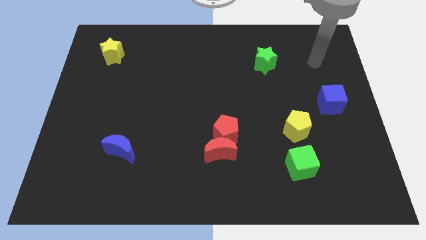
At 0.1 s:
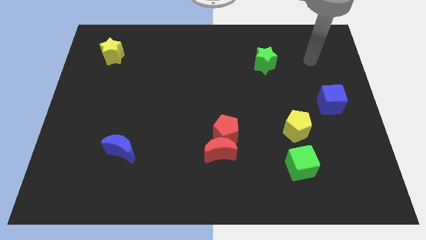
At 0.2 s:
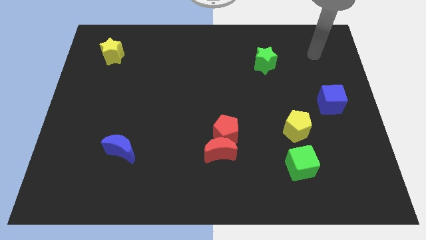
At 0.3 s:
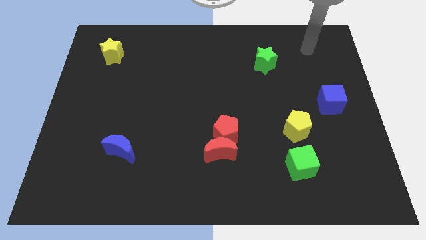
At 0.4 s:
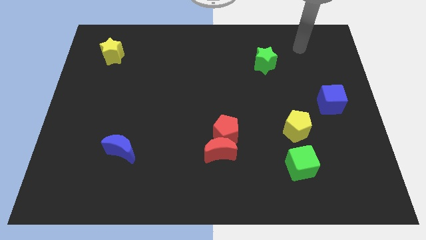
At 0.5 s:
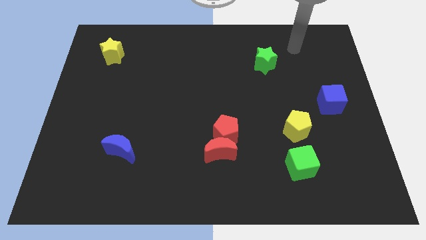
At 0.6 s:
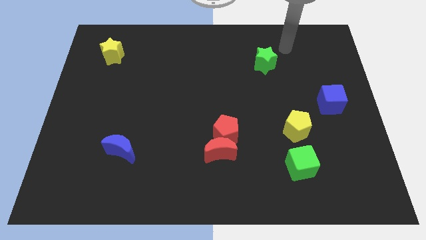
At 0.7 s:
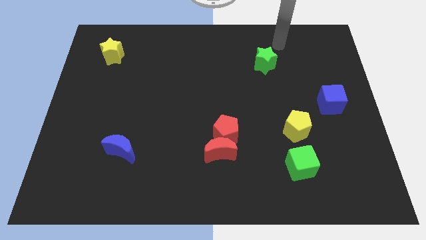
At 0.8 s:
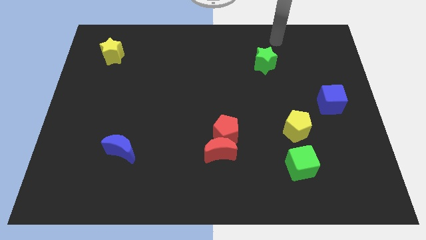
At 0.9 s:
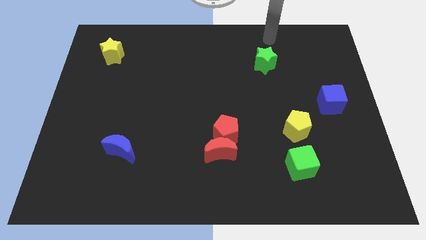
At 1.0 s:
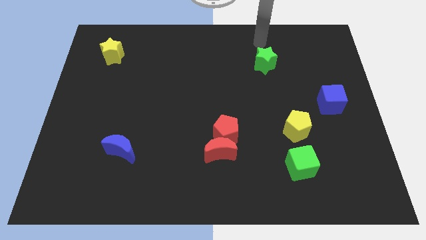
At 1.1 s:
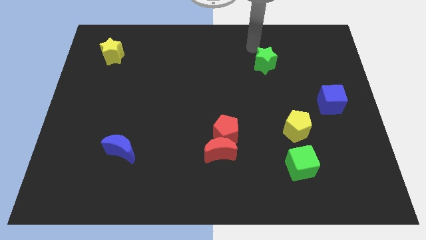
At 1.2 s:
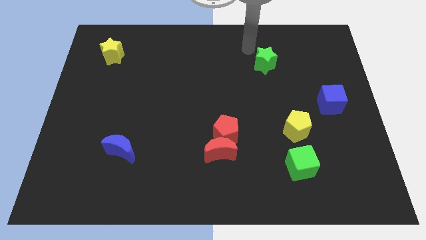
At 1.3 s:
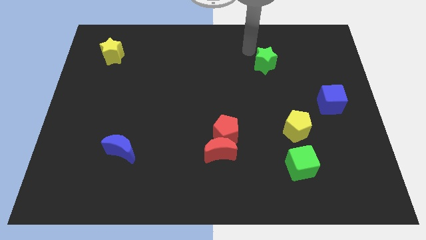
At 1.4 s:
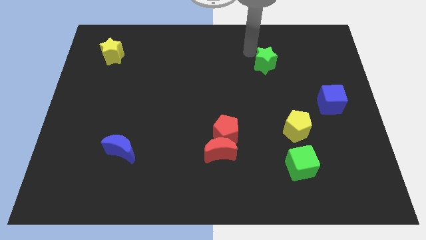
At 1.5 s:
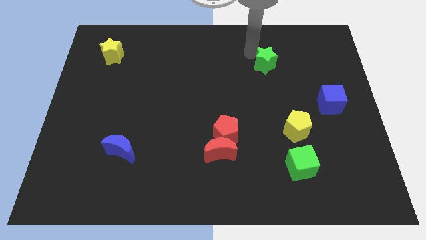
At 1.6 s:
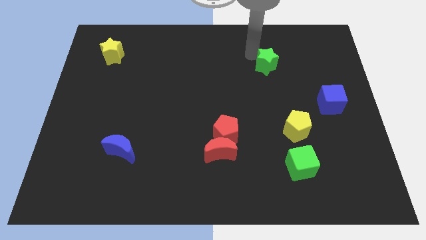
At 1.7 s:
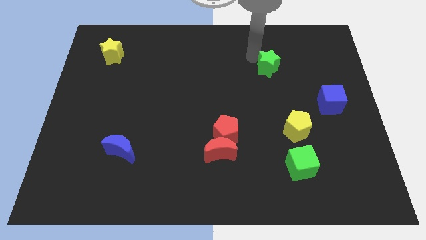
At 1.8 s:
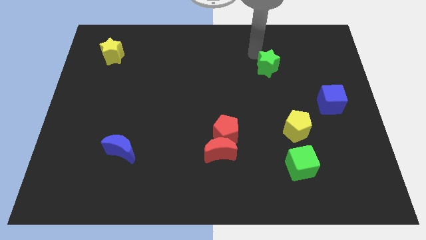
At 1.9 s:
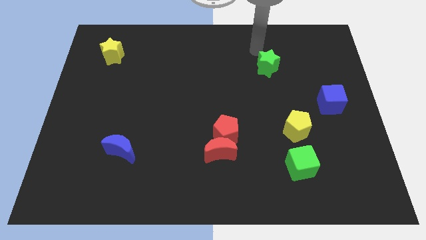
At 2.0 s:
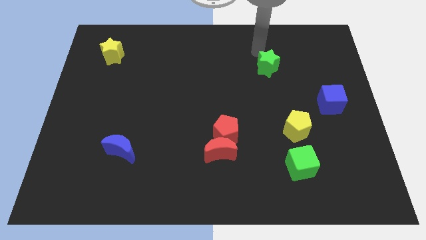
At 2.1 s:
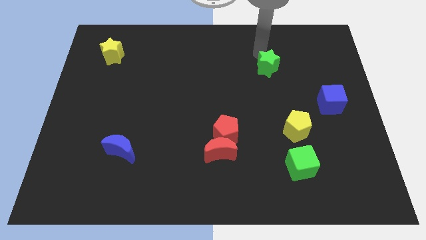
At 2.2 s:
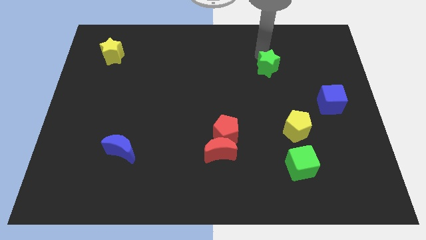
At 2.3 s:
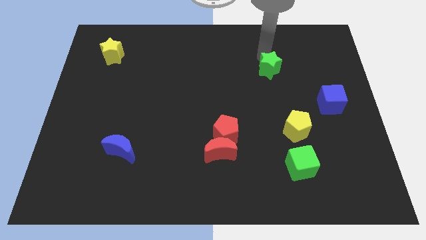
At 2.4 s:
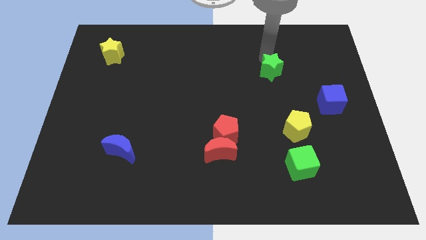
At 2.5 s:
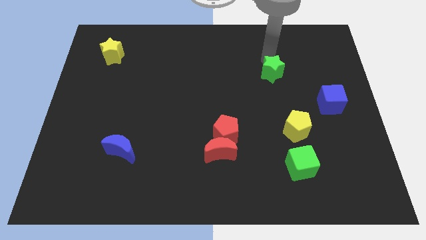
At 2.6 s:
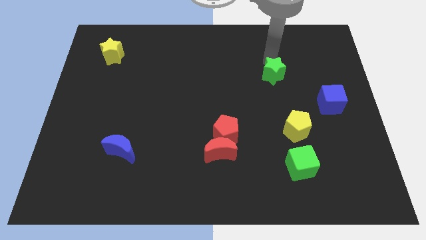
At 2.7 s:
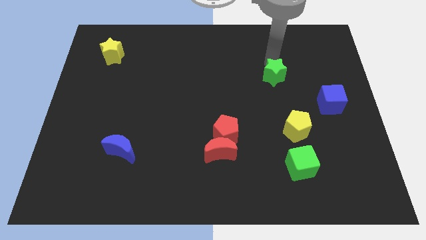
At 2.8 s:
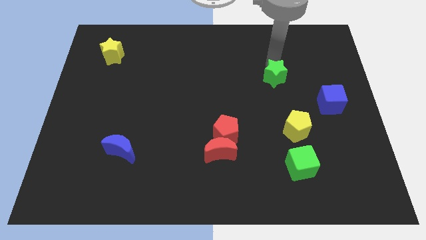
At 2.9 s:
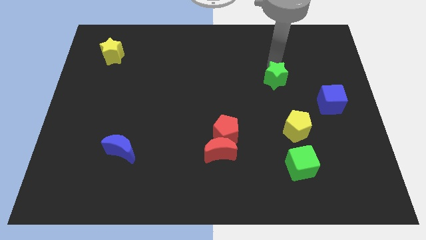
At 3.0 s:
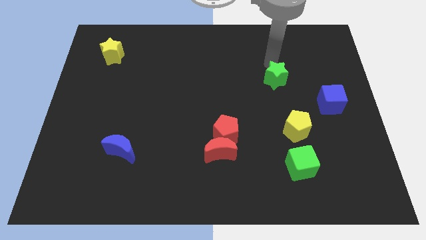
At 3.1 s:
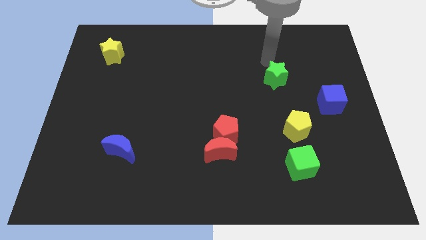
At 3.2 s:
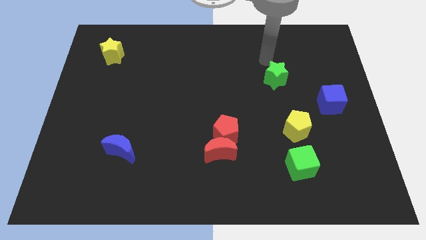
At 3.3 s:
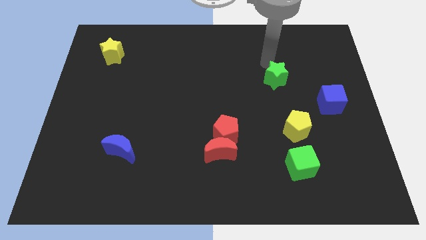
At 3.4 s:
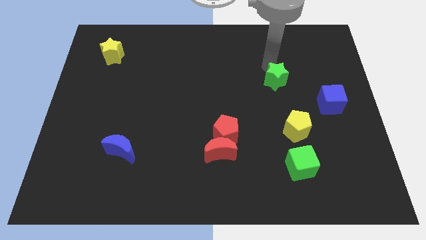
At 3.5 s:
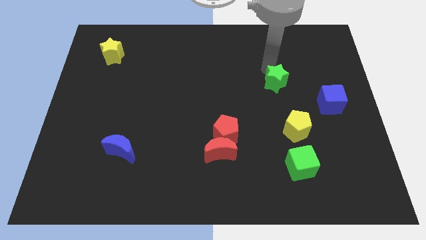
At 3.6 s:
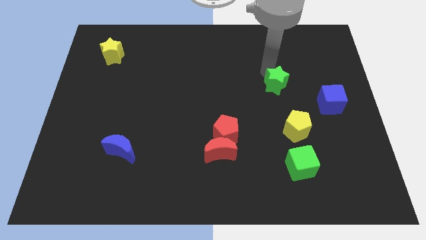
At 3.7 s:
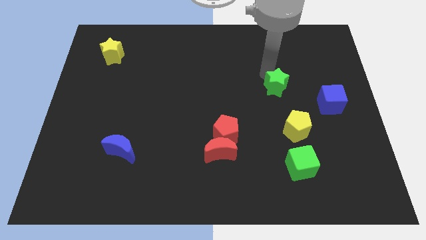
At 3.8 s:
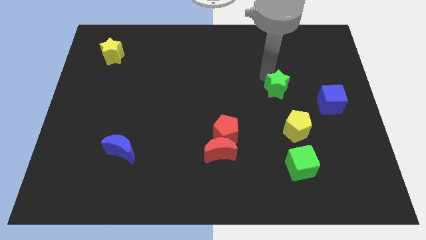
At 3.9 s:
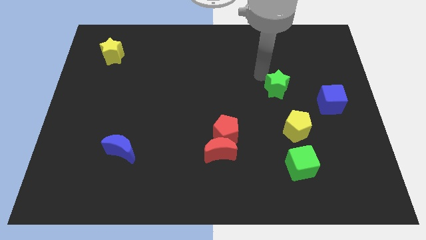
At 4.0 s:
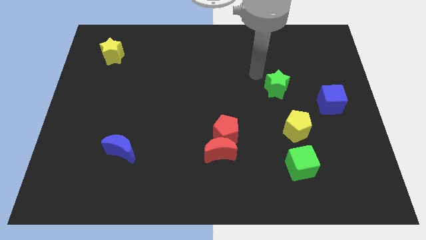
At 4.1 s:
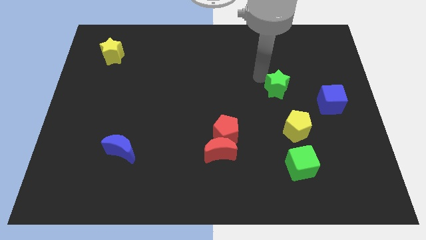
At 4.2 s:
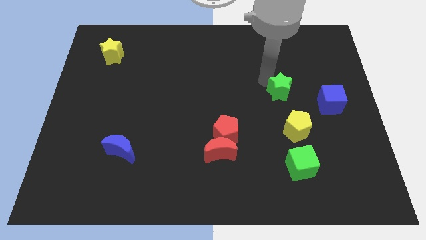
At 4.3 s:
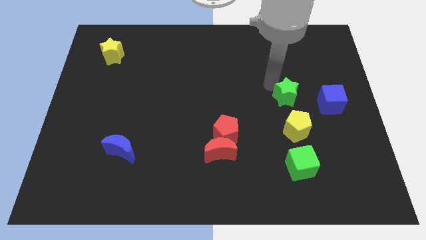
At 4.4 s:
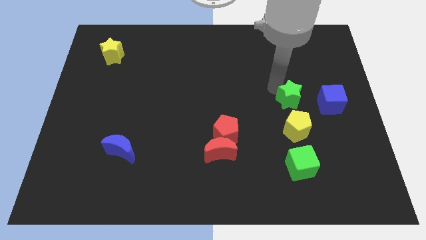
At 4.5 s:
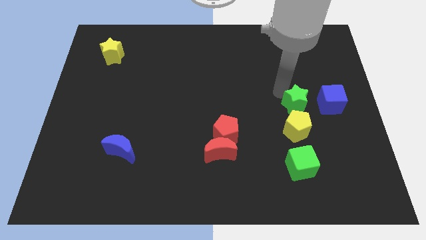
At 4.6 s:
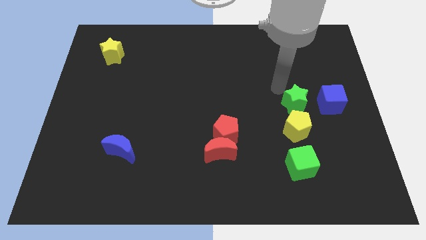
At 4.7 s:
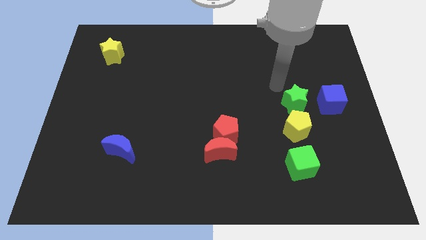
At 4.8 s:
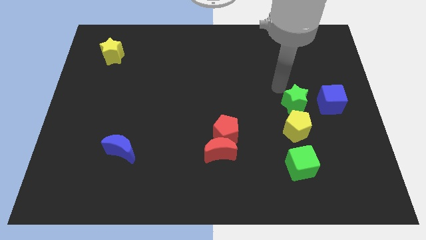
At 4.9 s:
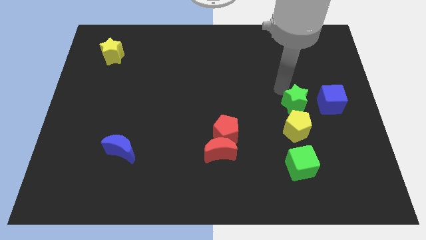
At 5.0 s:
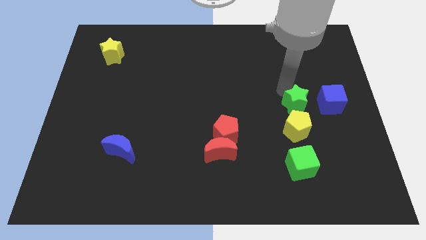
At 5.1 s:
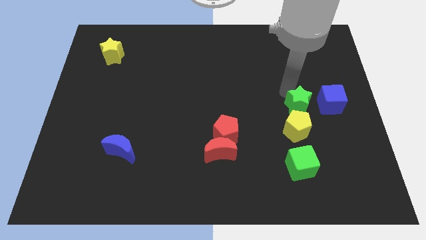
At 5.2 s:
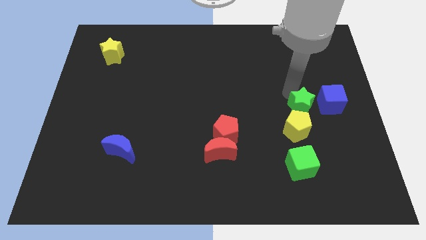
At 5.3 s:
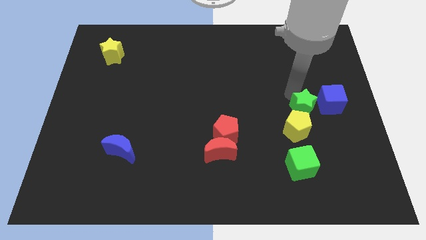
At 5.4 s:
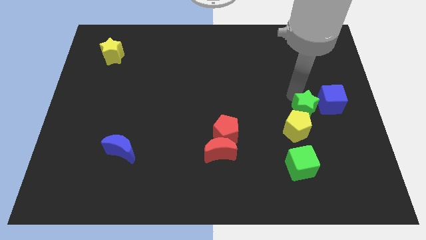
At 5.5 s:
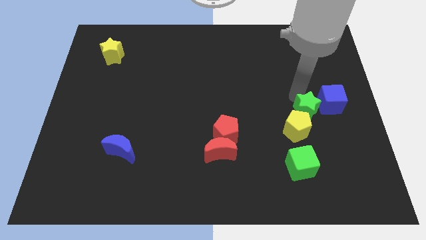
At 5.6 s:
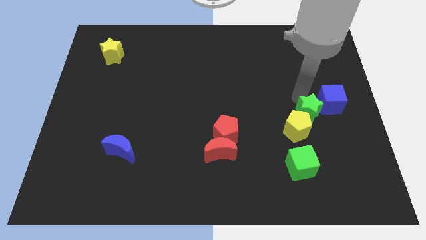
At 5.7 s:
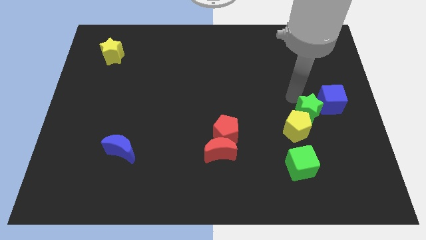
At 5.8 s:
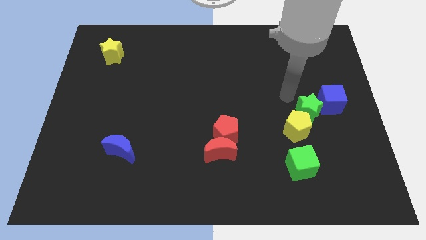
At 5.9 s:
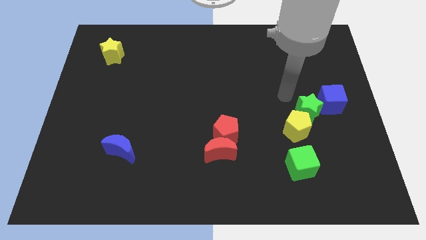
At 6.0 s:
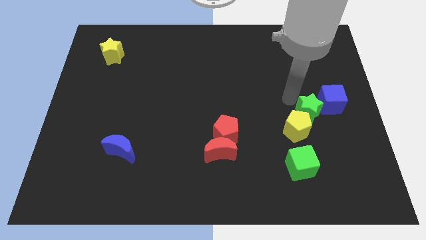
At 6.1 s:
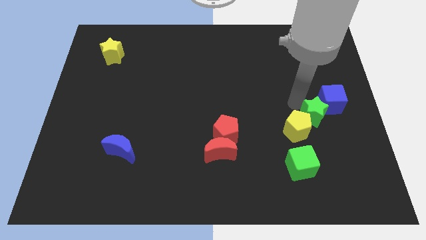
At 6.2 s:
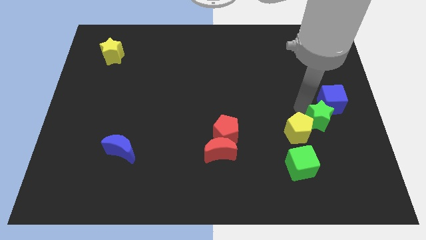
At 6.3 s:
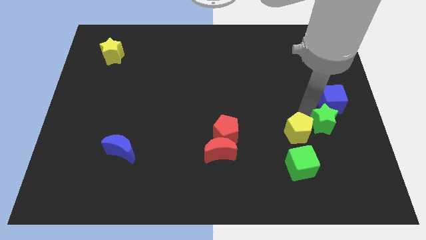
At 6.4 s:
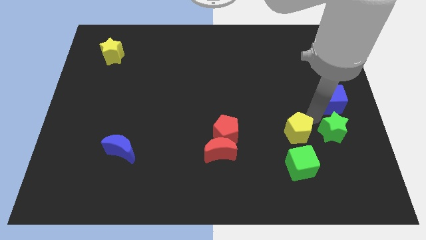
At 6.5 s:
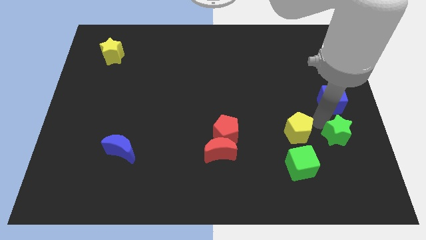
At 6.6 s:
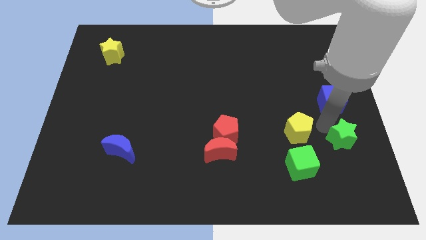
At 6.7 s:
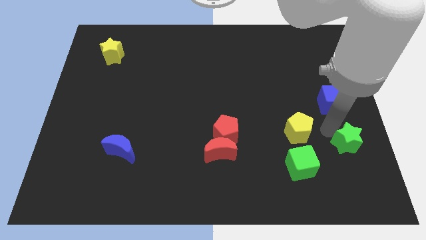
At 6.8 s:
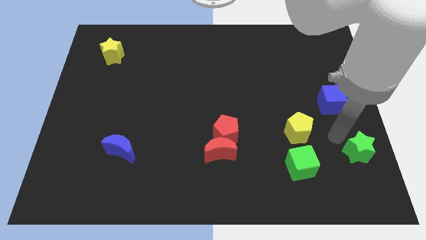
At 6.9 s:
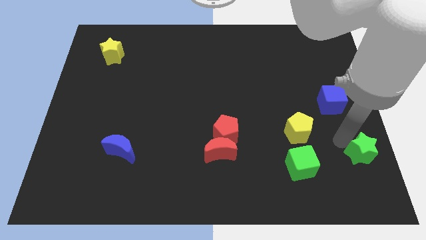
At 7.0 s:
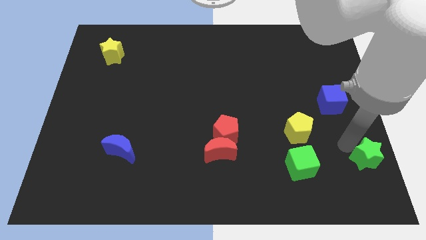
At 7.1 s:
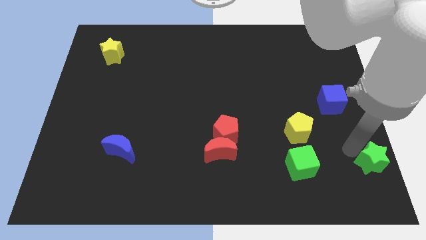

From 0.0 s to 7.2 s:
move the green star to the bottom right of the board

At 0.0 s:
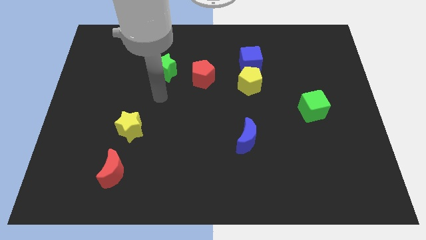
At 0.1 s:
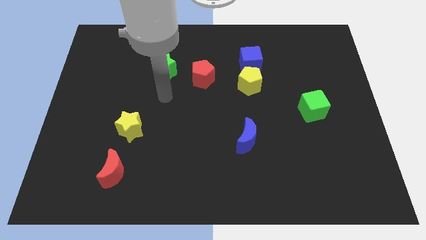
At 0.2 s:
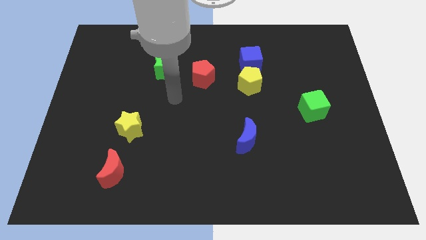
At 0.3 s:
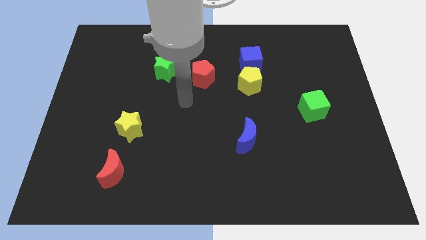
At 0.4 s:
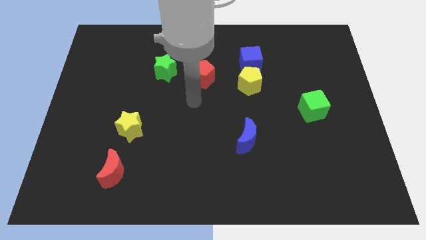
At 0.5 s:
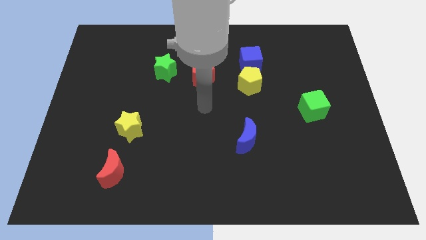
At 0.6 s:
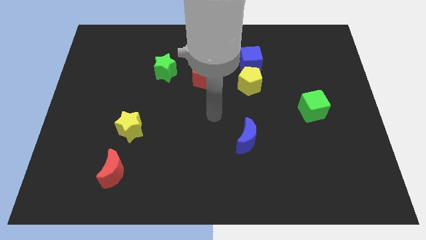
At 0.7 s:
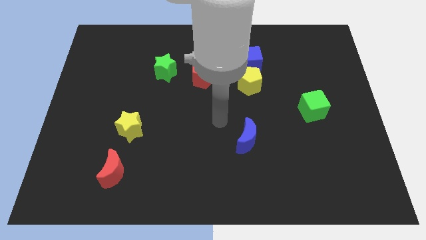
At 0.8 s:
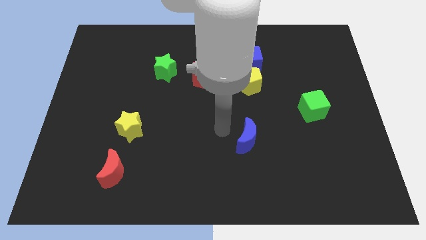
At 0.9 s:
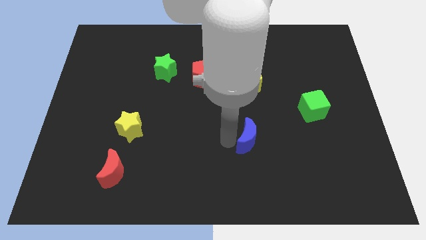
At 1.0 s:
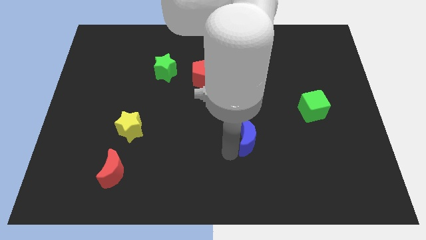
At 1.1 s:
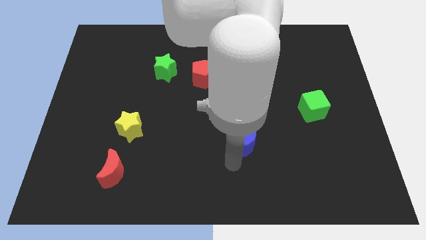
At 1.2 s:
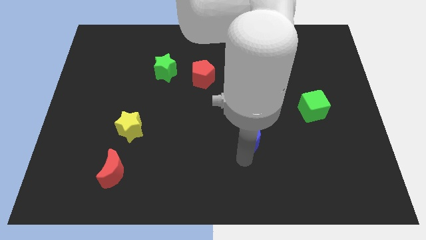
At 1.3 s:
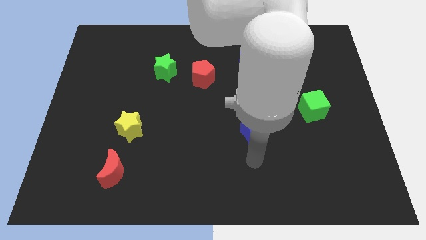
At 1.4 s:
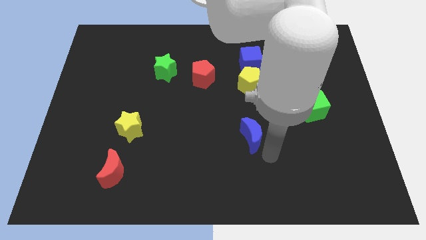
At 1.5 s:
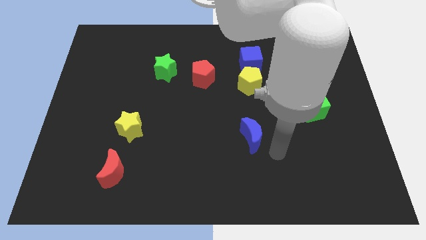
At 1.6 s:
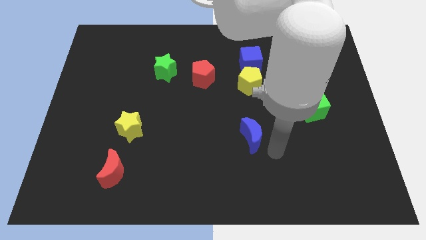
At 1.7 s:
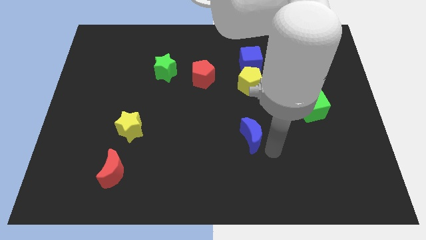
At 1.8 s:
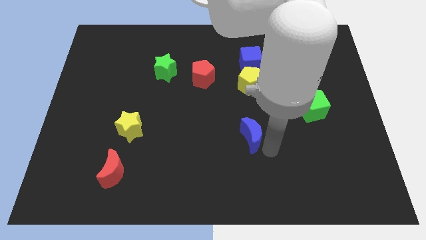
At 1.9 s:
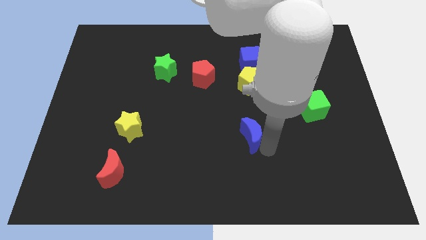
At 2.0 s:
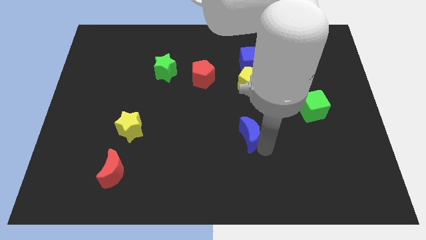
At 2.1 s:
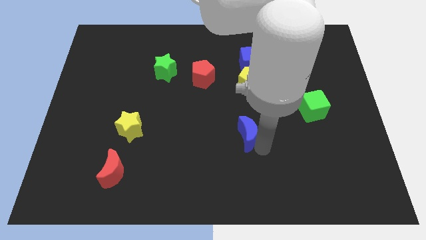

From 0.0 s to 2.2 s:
slide the blue moon to the center of the board
